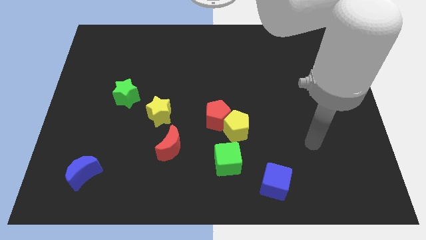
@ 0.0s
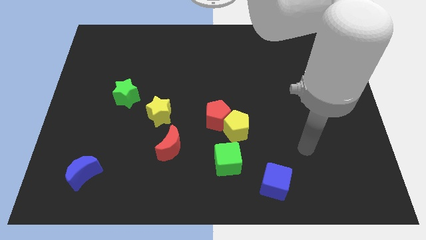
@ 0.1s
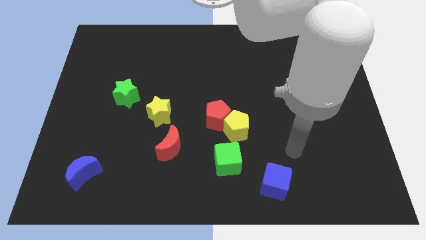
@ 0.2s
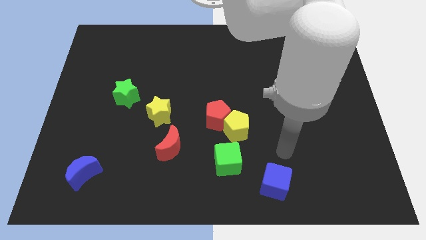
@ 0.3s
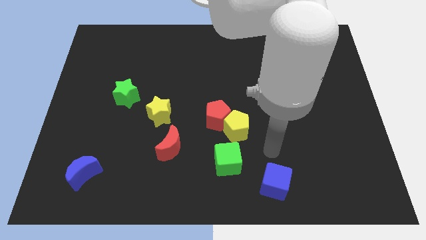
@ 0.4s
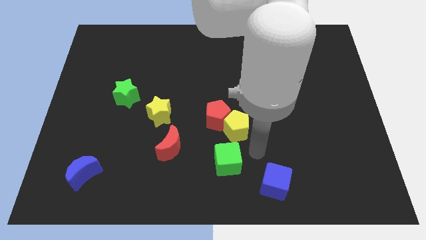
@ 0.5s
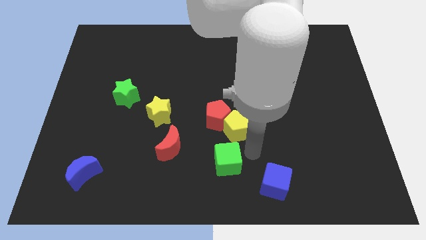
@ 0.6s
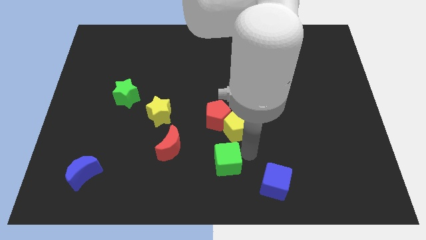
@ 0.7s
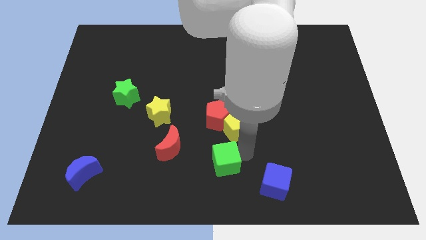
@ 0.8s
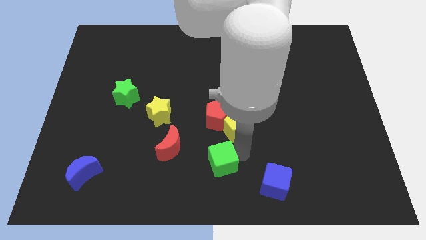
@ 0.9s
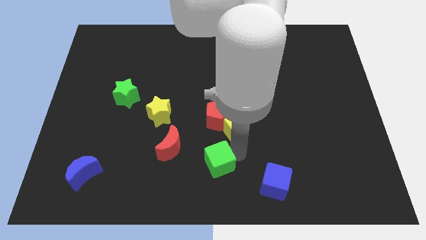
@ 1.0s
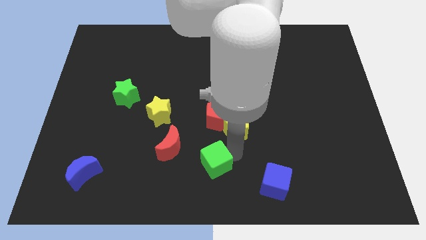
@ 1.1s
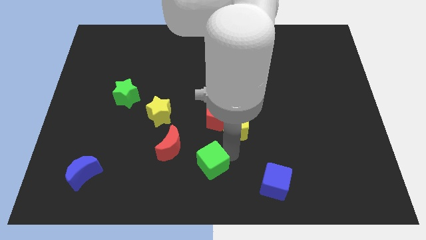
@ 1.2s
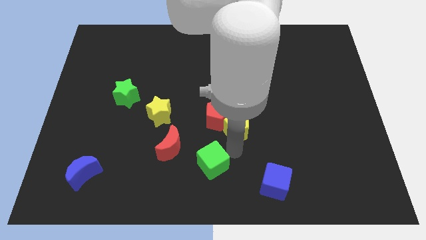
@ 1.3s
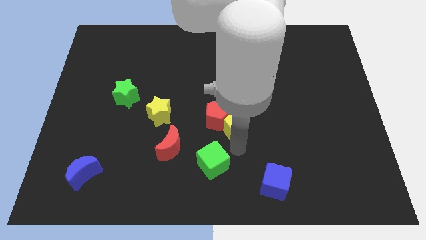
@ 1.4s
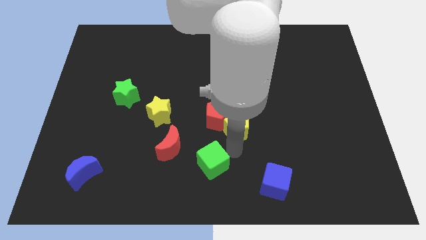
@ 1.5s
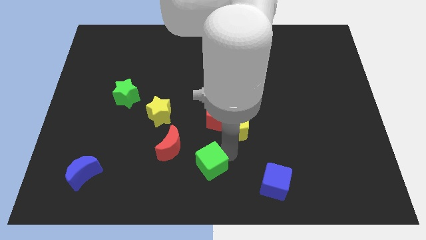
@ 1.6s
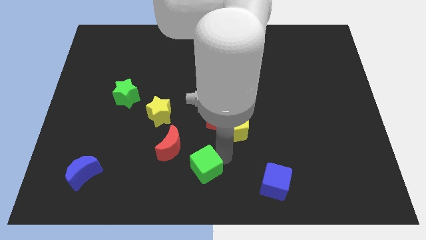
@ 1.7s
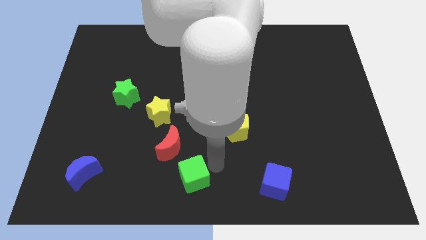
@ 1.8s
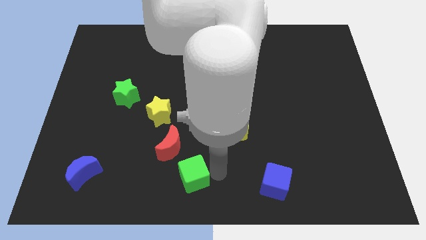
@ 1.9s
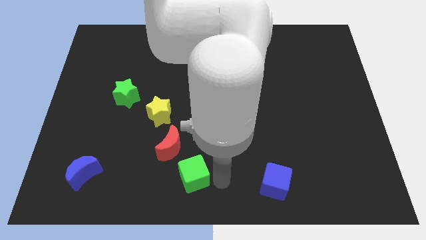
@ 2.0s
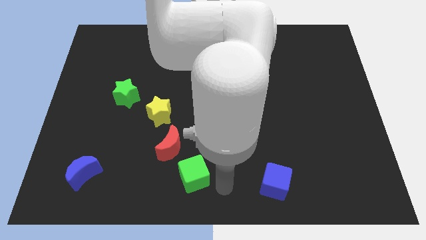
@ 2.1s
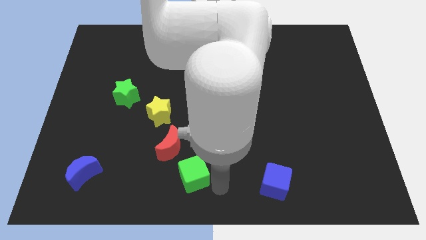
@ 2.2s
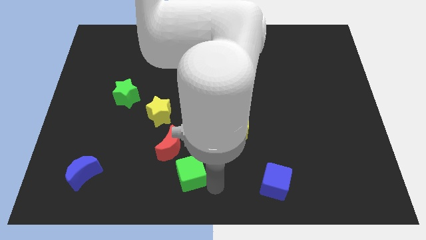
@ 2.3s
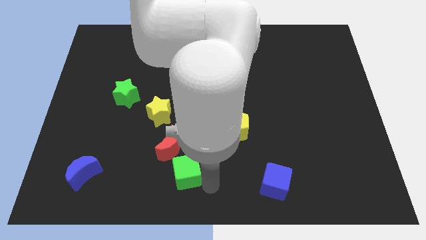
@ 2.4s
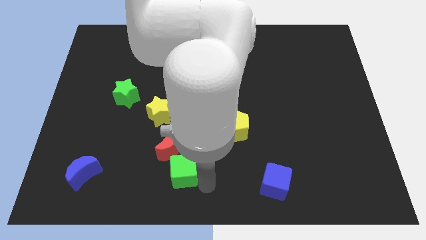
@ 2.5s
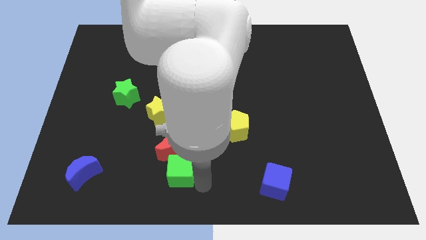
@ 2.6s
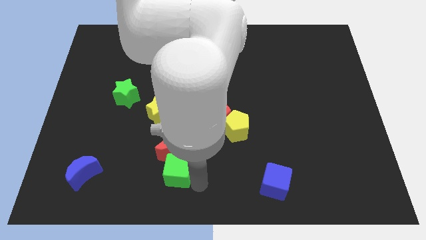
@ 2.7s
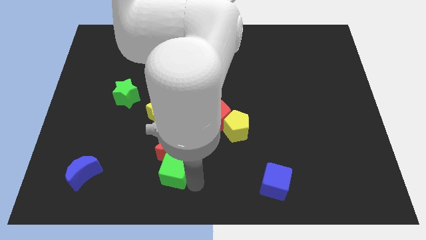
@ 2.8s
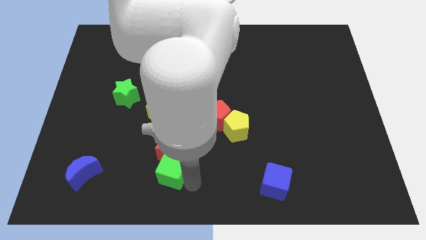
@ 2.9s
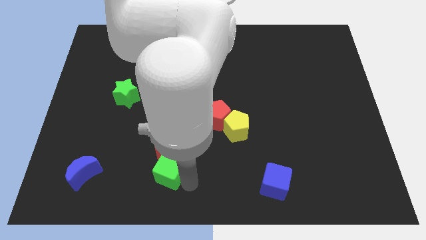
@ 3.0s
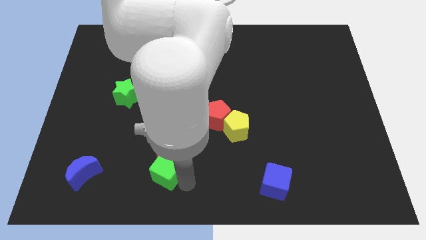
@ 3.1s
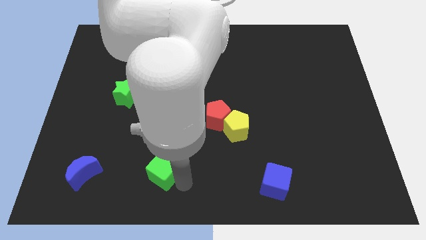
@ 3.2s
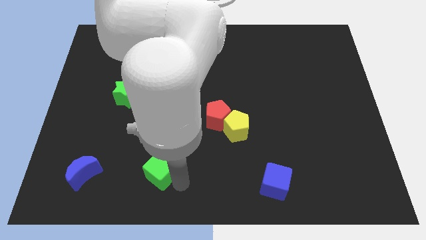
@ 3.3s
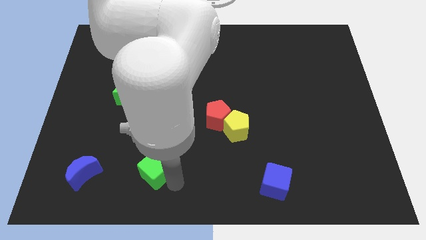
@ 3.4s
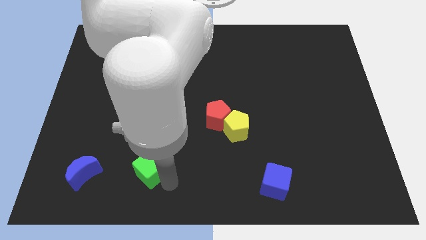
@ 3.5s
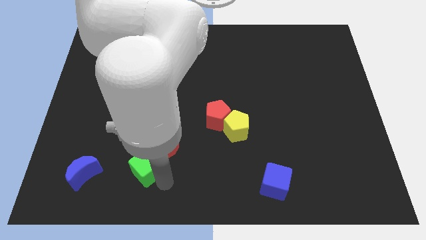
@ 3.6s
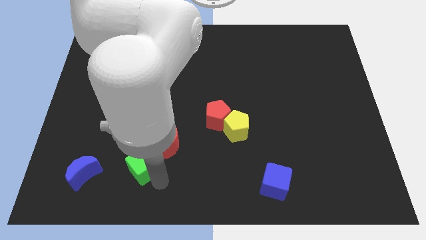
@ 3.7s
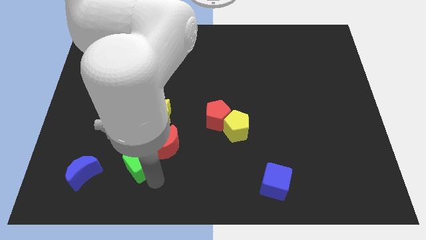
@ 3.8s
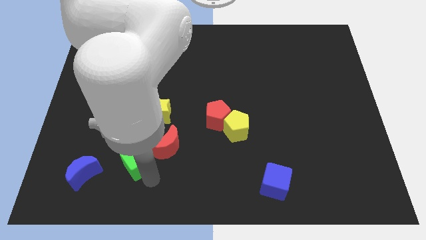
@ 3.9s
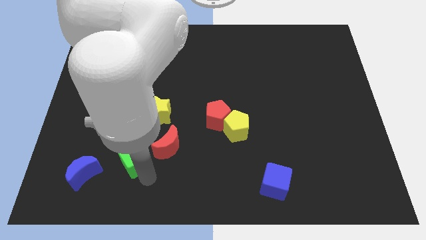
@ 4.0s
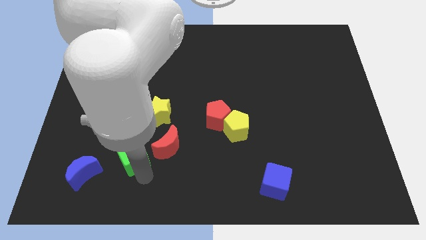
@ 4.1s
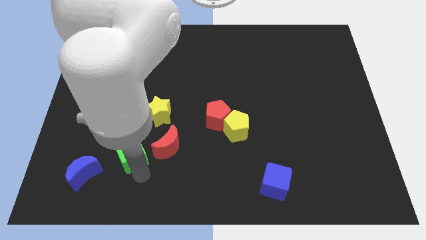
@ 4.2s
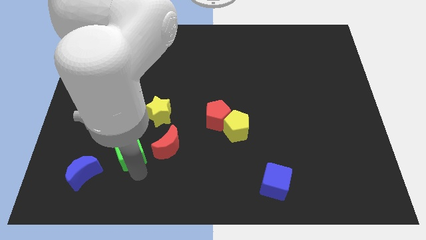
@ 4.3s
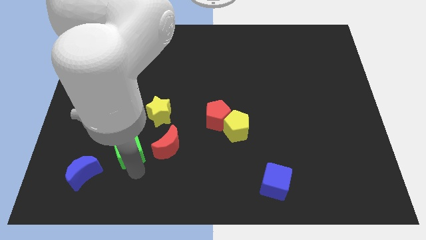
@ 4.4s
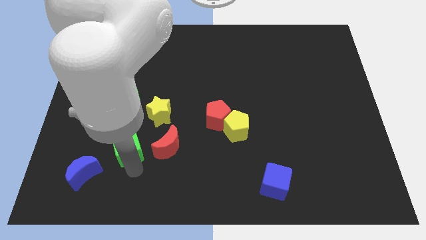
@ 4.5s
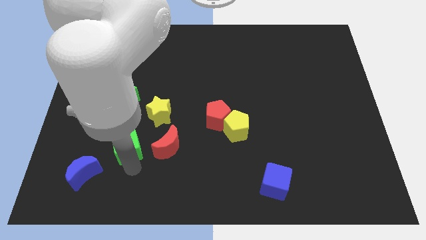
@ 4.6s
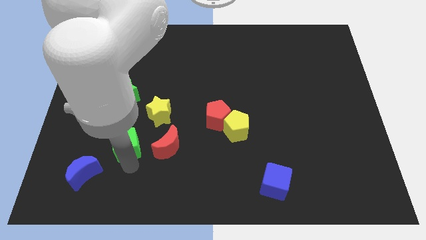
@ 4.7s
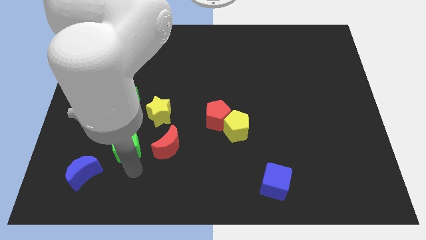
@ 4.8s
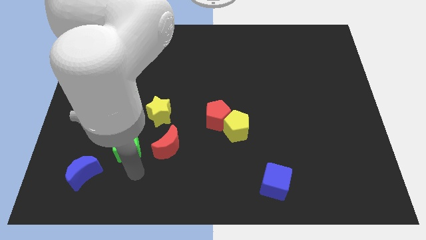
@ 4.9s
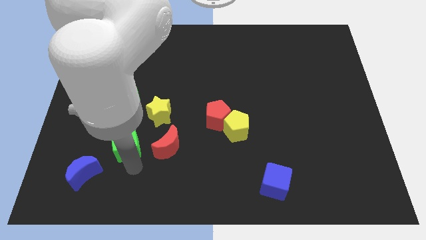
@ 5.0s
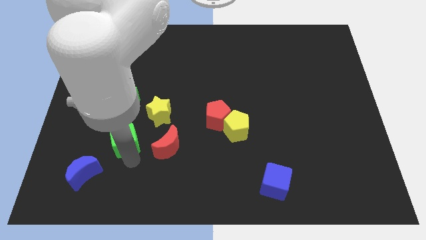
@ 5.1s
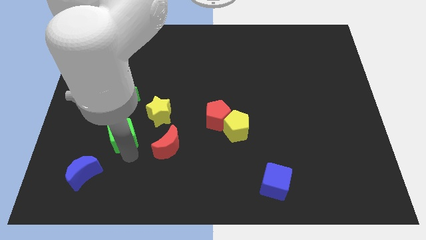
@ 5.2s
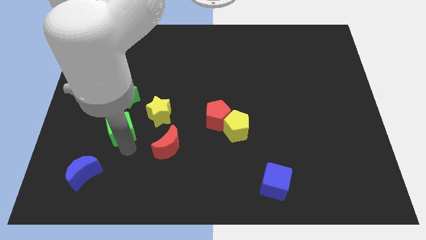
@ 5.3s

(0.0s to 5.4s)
push the green cube to the left side of the yellow star

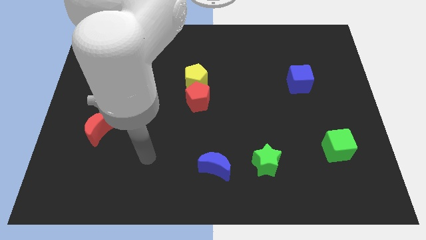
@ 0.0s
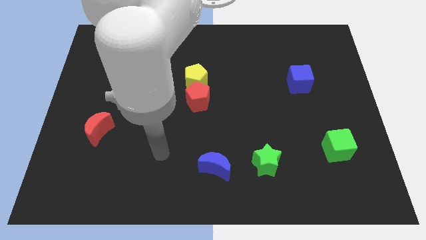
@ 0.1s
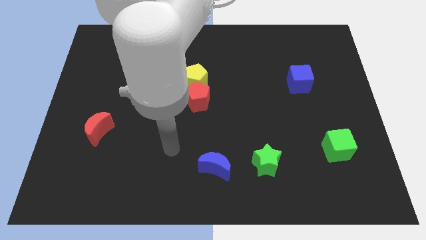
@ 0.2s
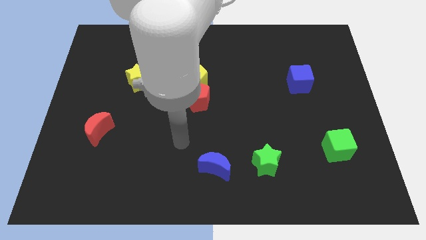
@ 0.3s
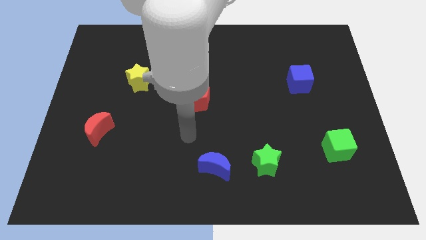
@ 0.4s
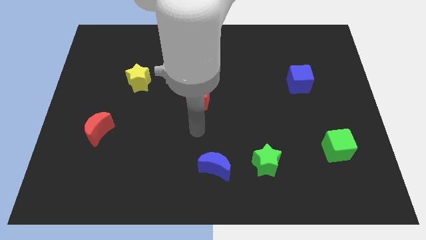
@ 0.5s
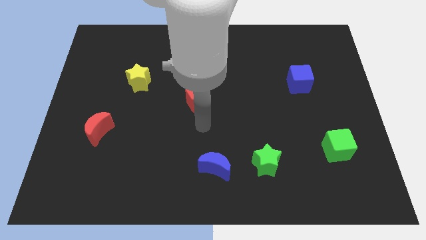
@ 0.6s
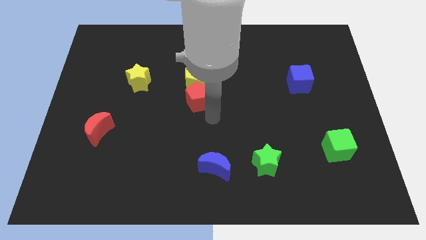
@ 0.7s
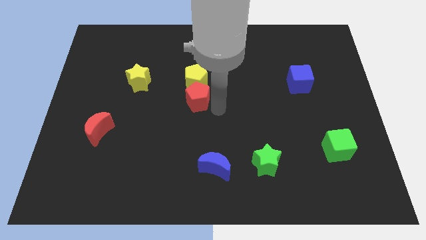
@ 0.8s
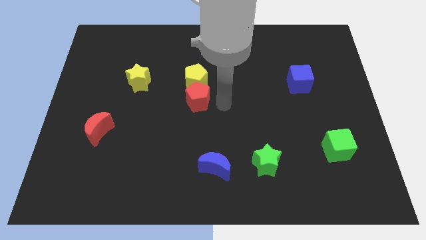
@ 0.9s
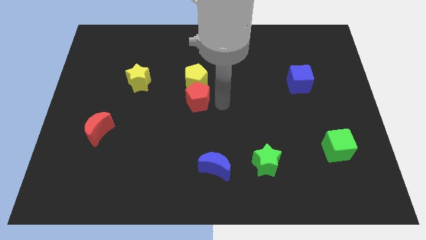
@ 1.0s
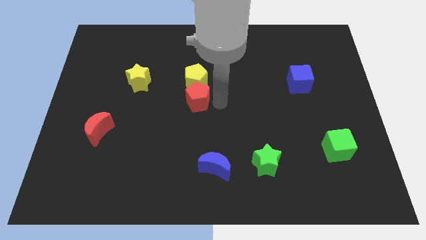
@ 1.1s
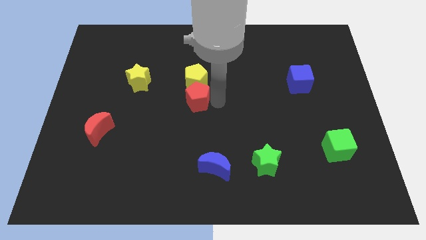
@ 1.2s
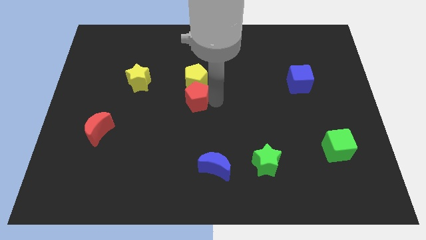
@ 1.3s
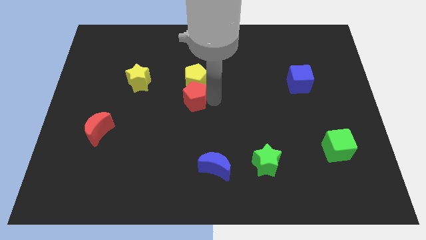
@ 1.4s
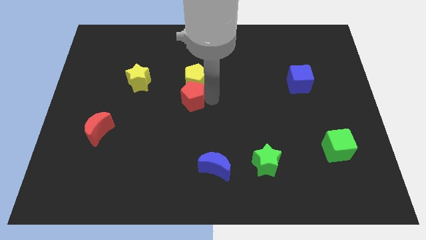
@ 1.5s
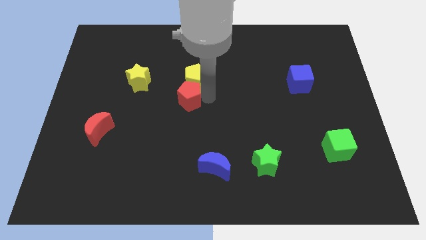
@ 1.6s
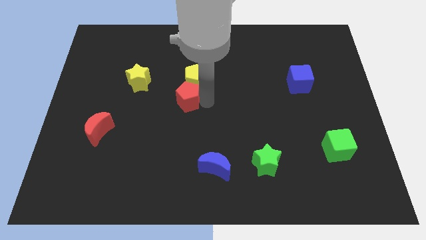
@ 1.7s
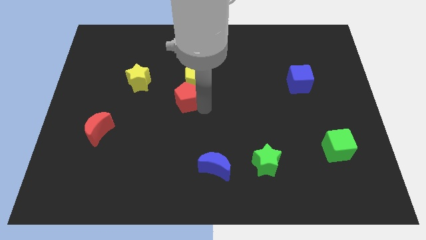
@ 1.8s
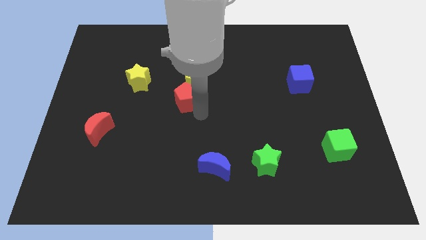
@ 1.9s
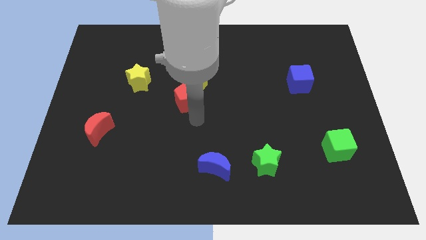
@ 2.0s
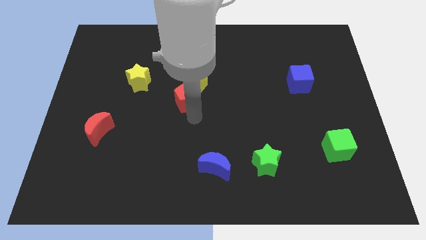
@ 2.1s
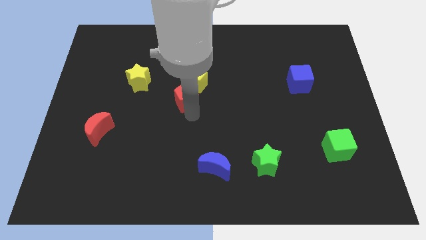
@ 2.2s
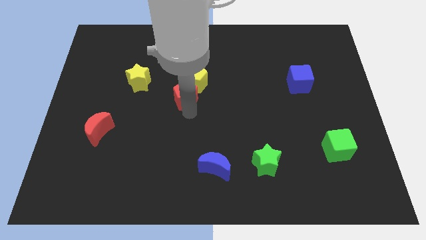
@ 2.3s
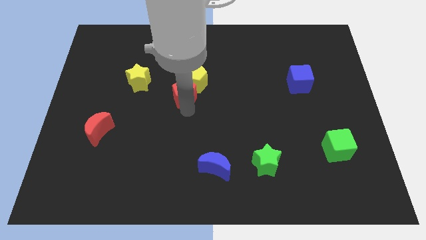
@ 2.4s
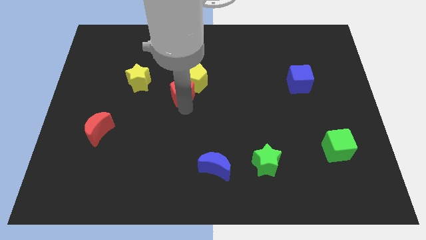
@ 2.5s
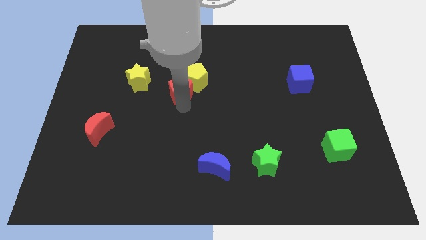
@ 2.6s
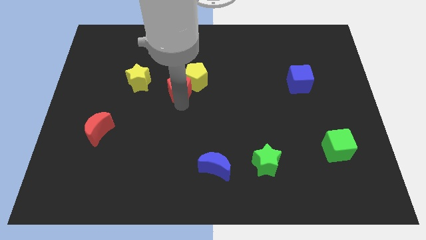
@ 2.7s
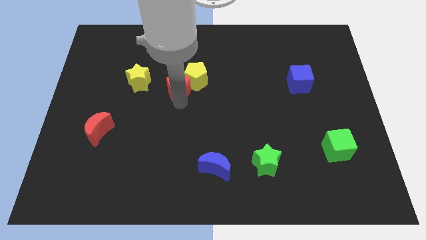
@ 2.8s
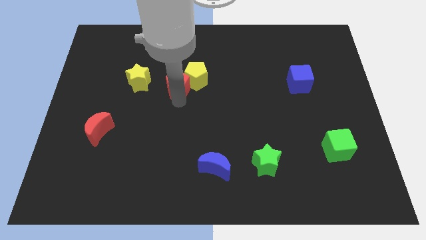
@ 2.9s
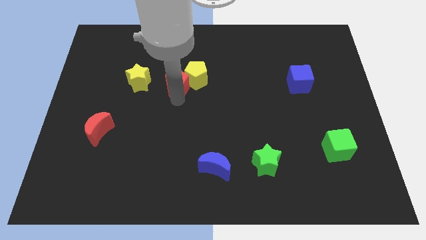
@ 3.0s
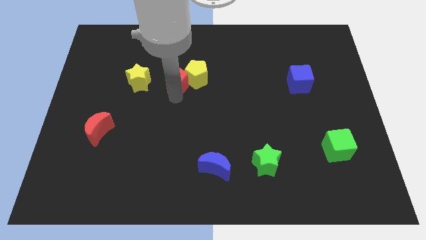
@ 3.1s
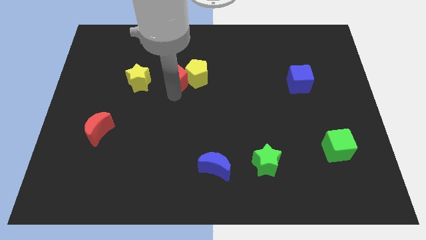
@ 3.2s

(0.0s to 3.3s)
move the red pentagon diagonally up and to the left of the yellow pentagon
